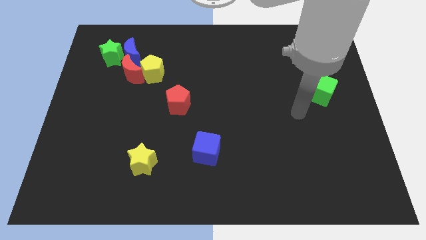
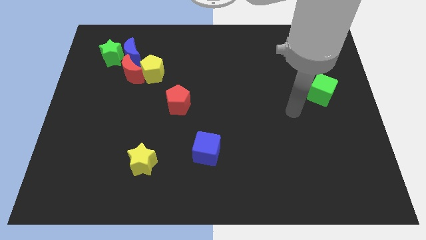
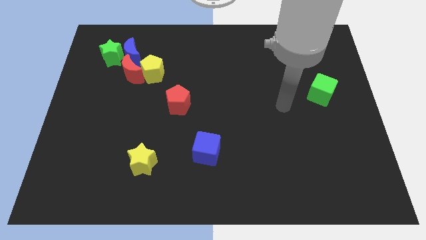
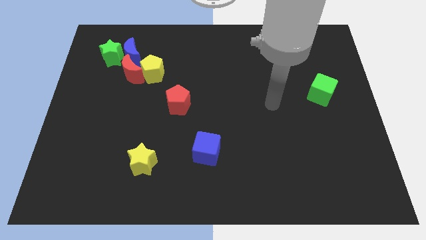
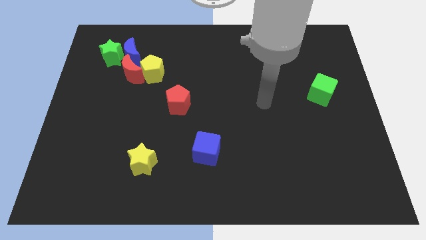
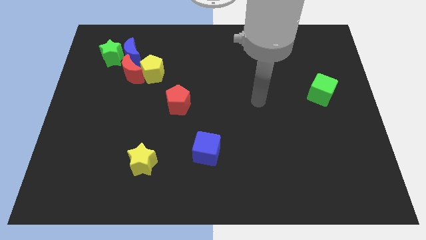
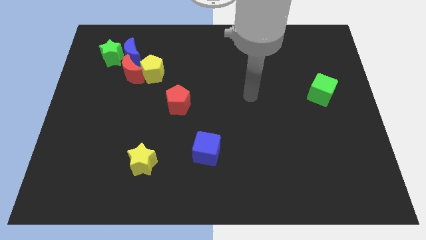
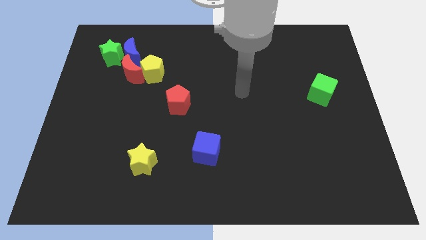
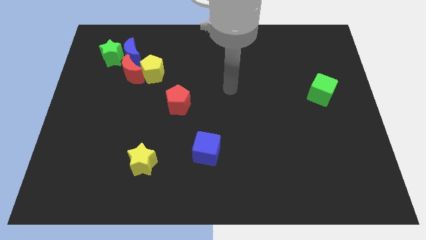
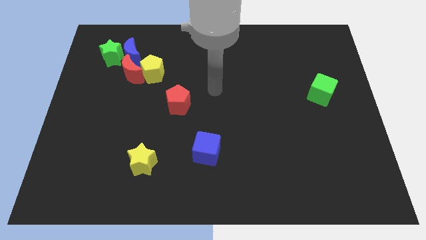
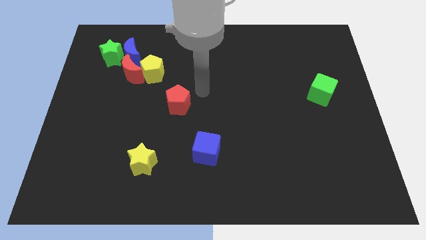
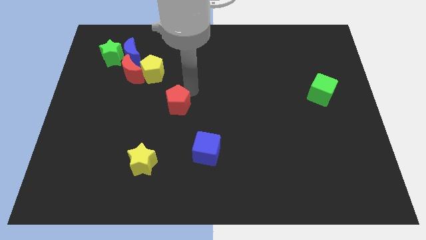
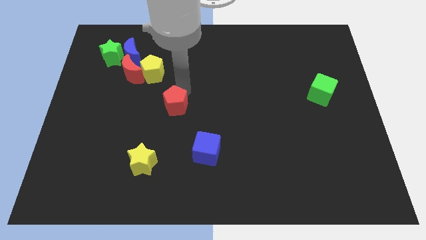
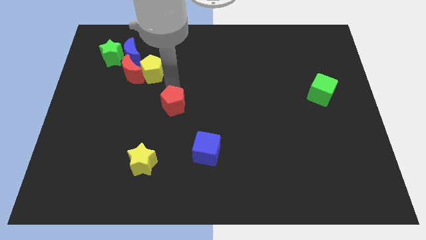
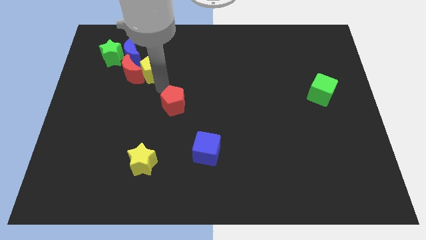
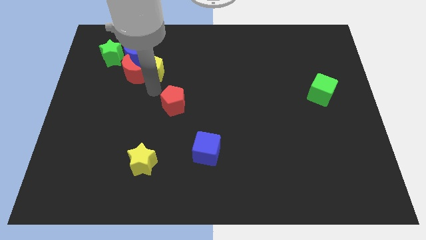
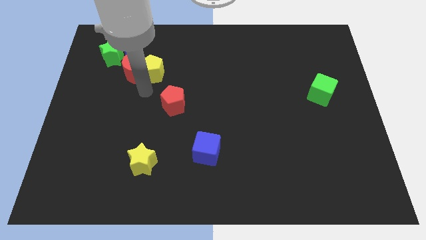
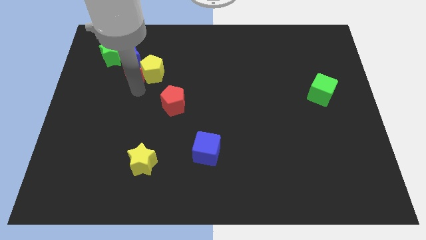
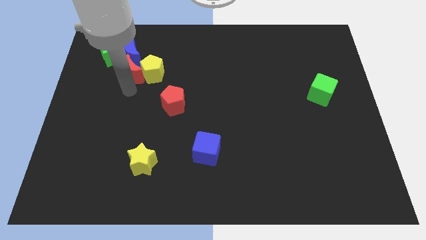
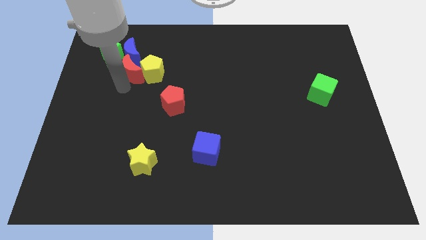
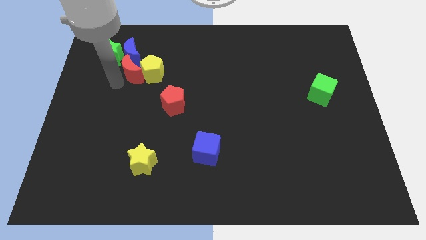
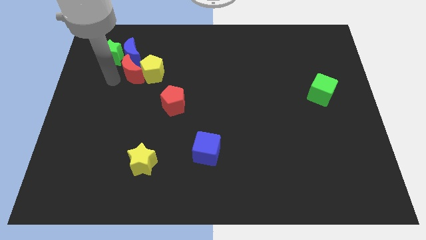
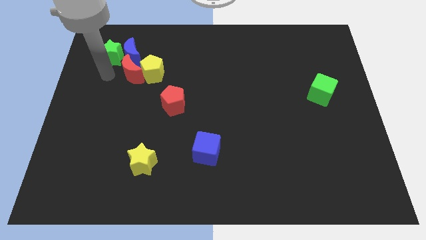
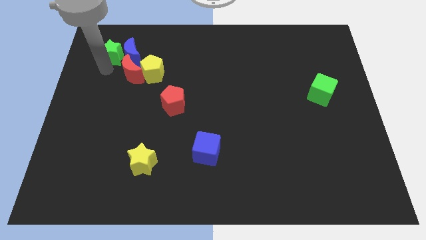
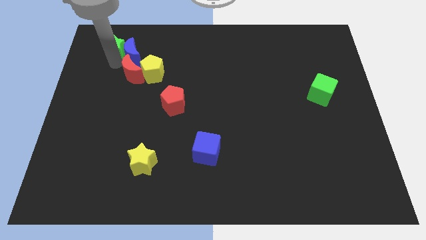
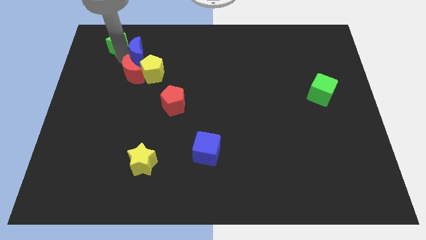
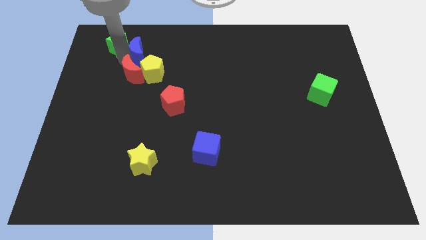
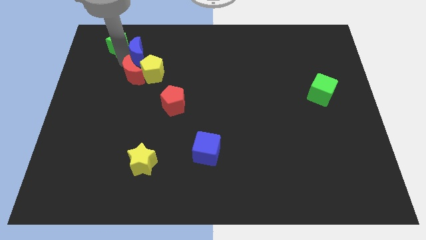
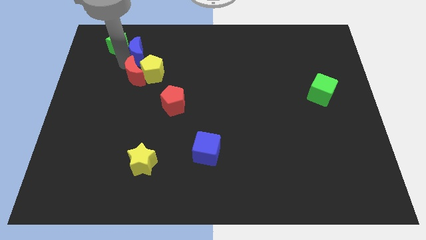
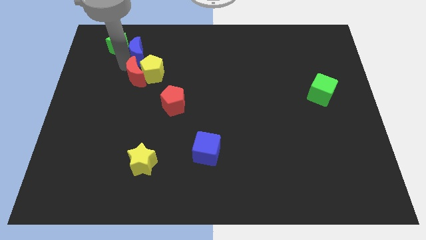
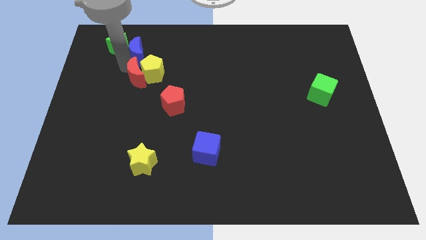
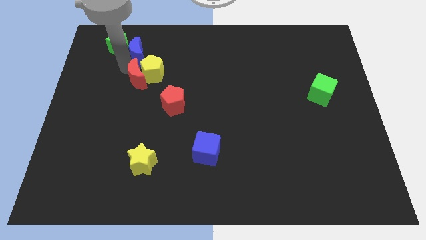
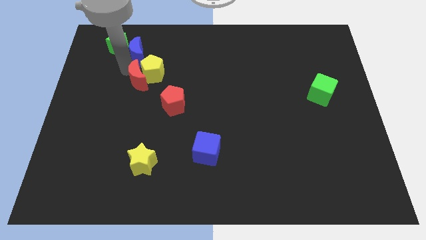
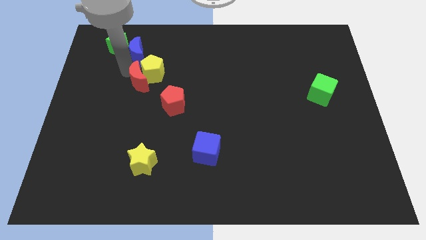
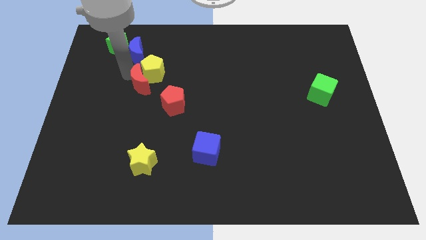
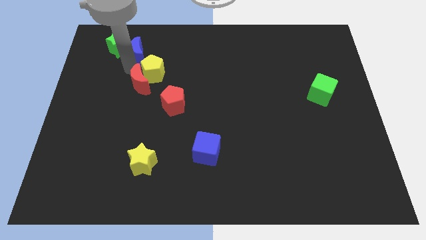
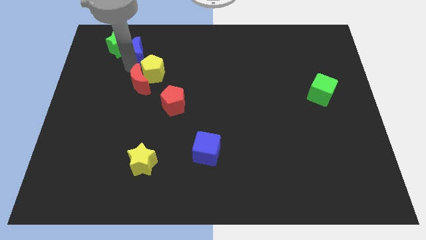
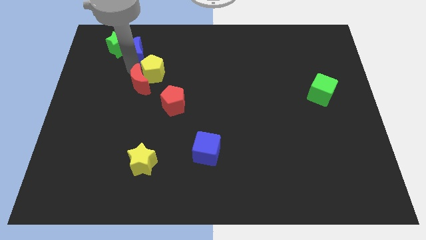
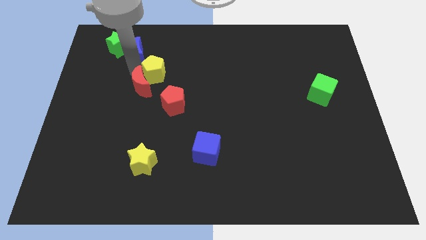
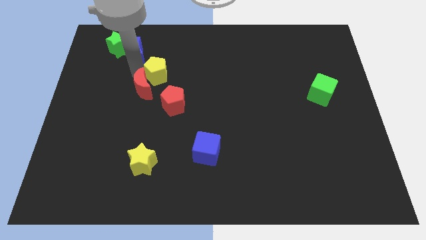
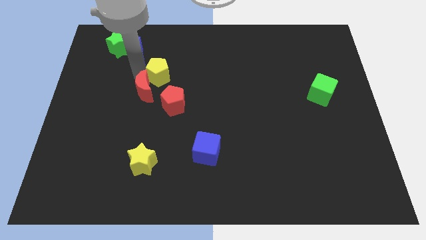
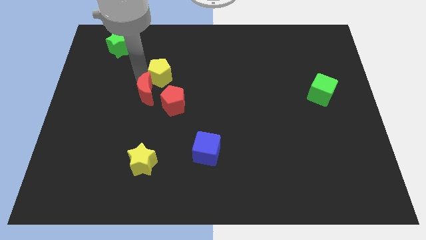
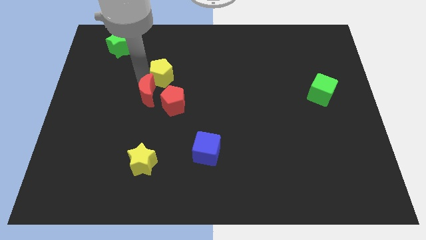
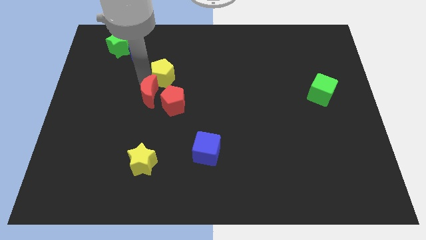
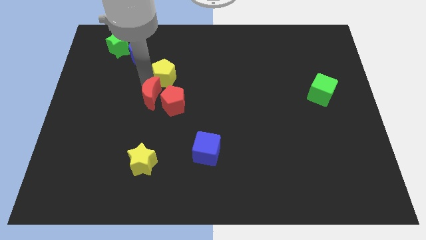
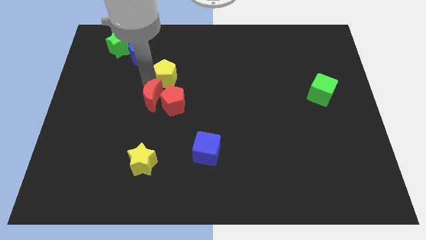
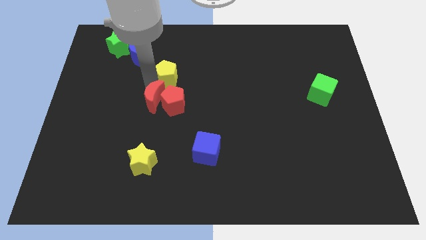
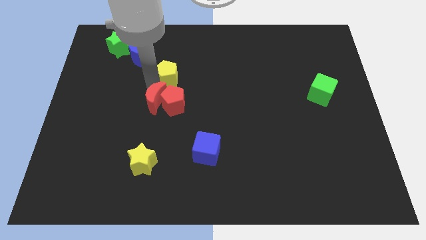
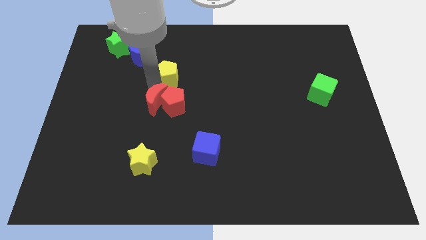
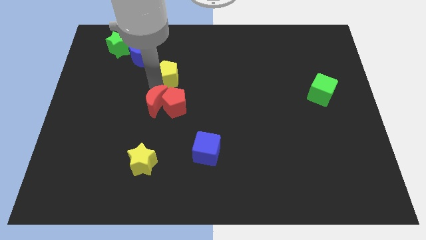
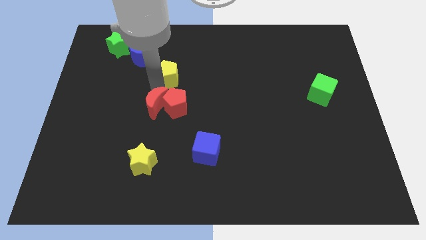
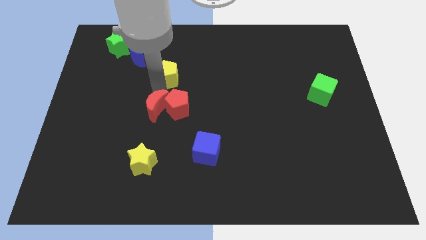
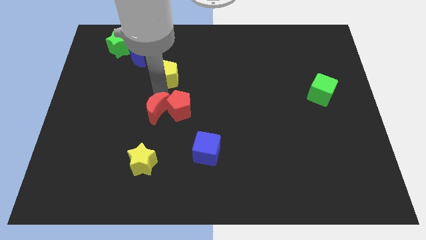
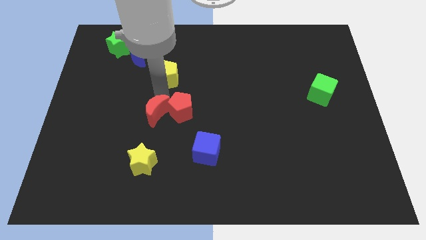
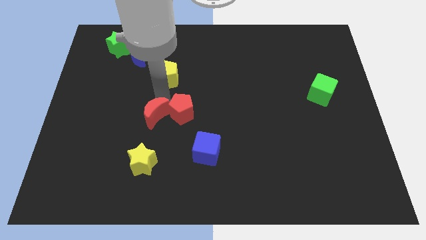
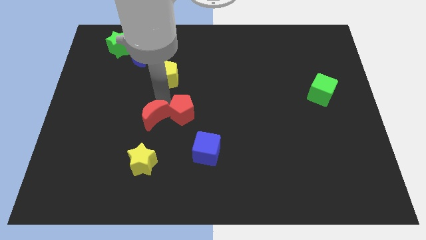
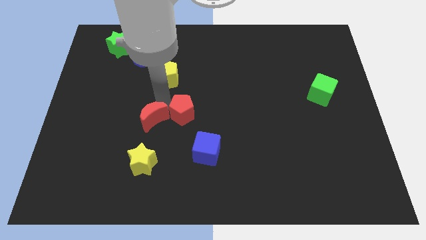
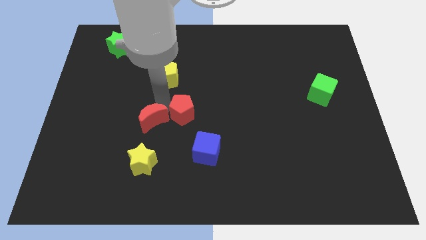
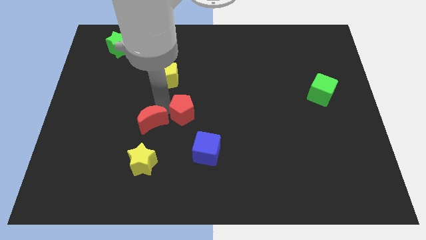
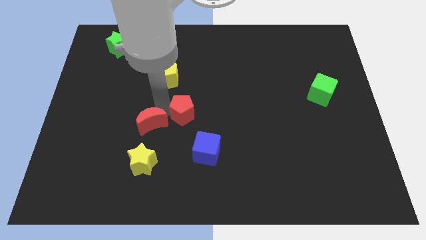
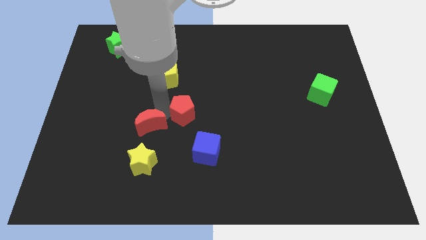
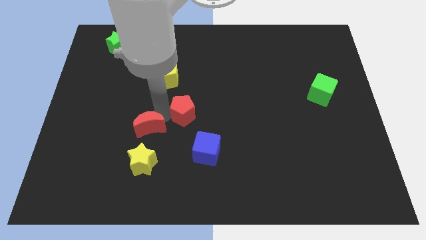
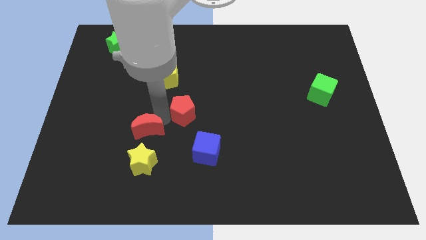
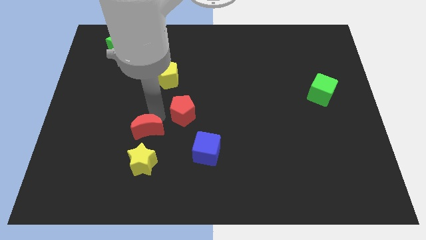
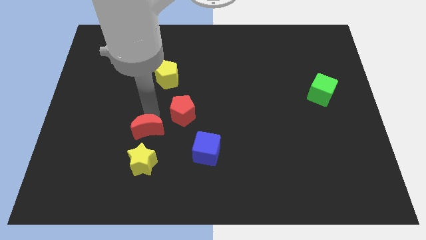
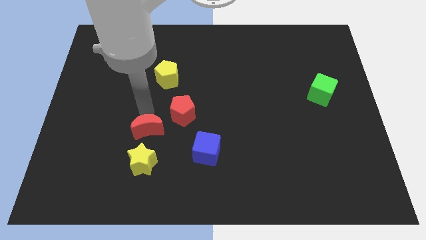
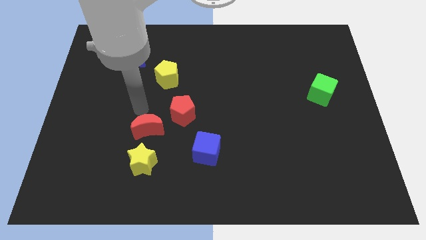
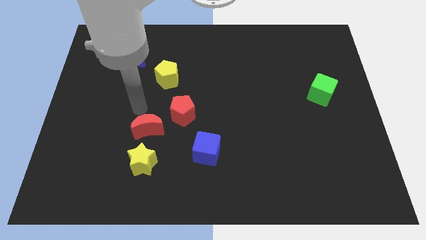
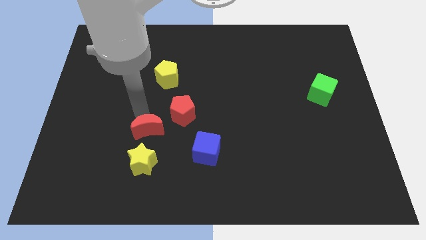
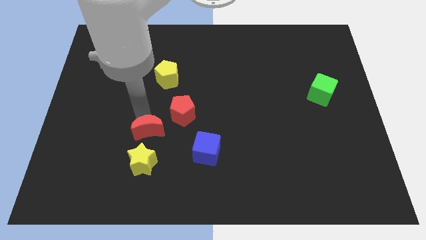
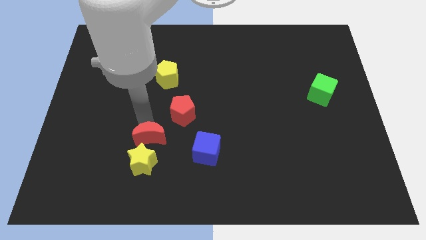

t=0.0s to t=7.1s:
move the red moon to the left of the blue cube
